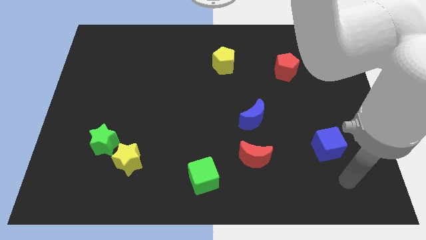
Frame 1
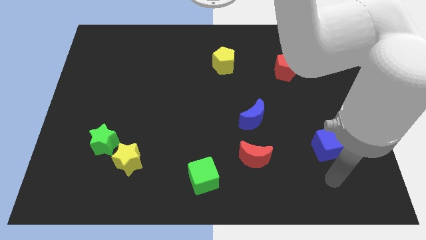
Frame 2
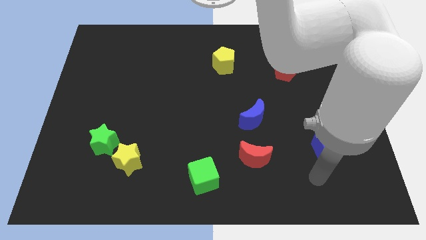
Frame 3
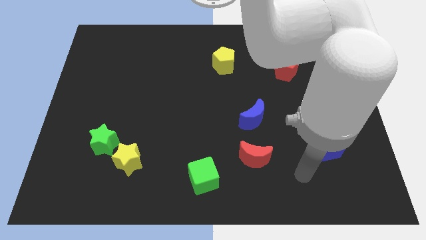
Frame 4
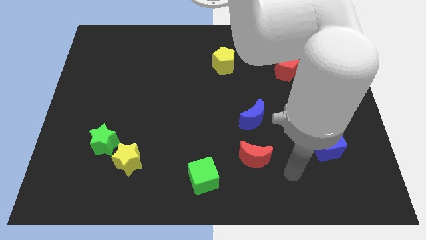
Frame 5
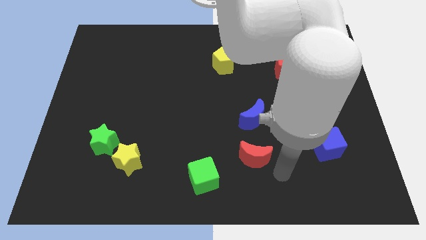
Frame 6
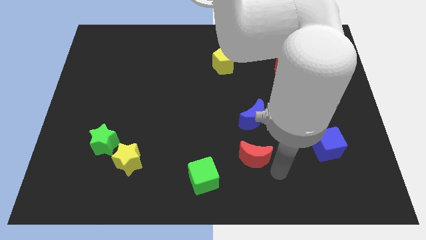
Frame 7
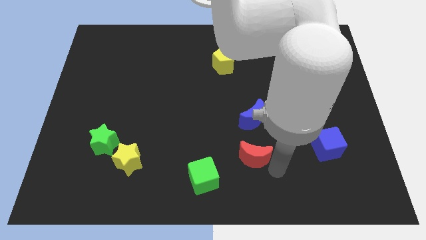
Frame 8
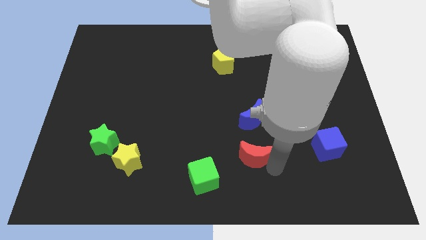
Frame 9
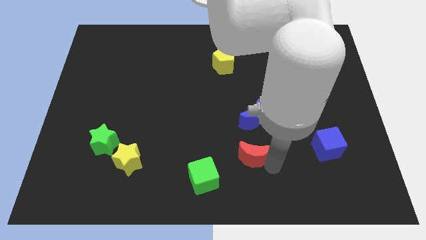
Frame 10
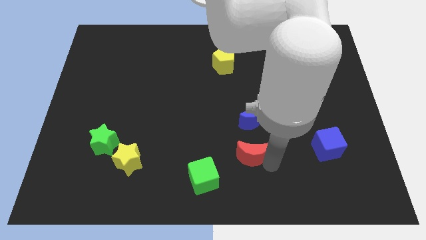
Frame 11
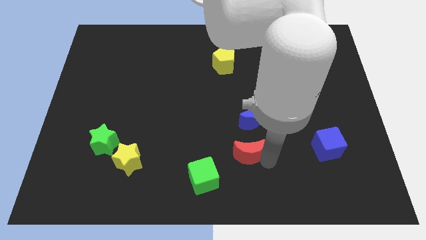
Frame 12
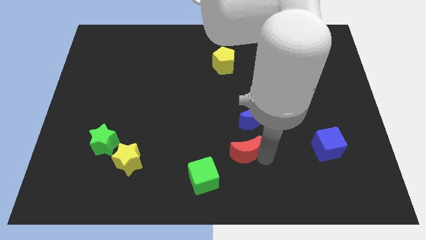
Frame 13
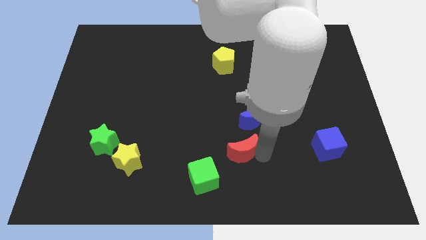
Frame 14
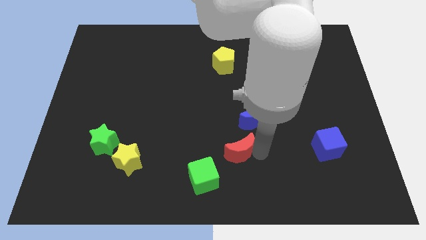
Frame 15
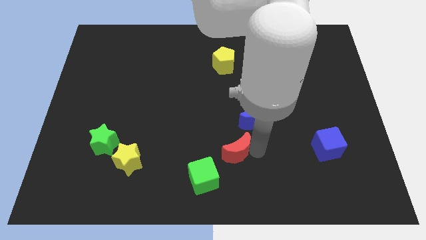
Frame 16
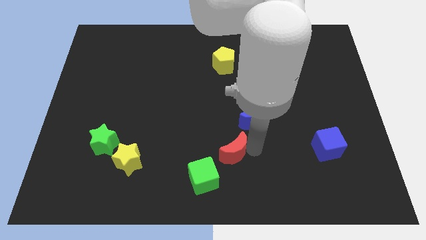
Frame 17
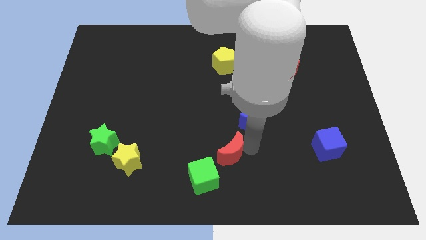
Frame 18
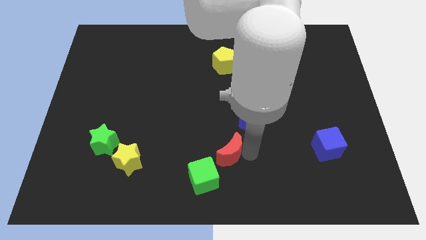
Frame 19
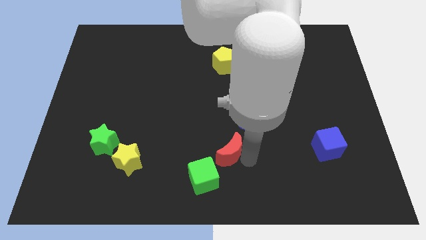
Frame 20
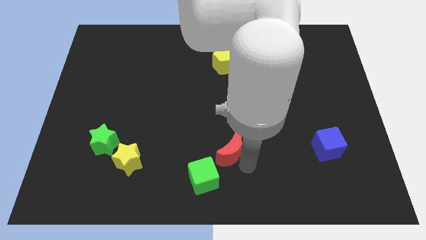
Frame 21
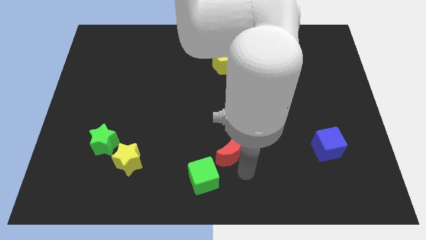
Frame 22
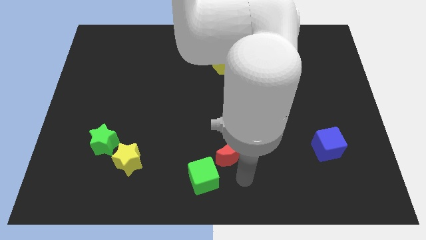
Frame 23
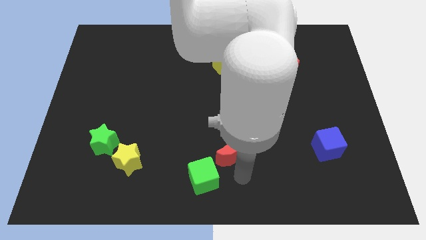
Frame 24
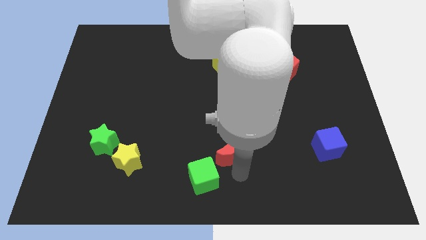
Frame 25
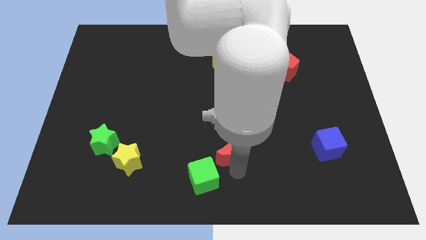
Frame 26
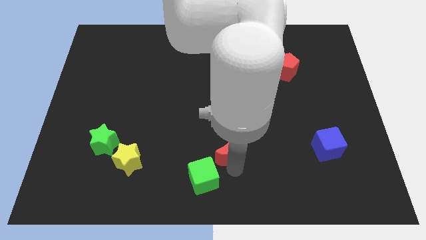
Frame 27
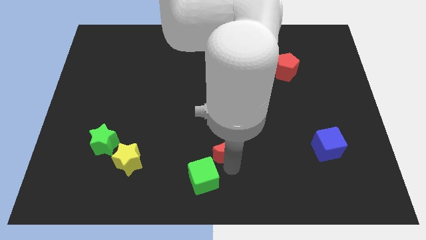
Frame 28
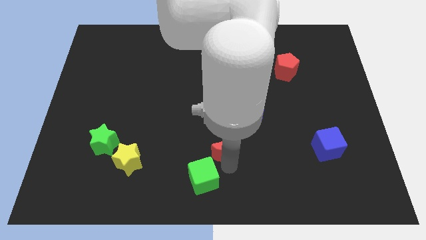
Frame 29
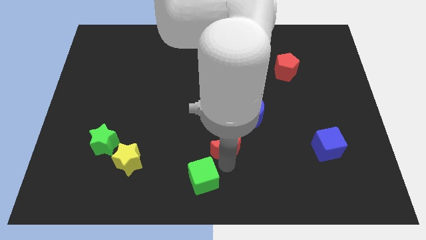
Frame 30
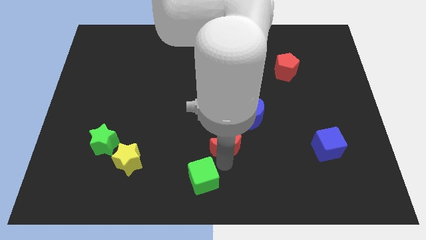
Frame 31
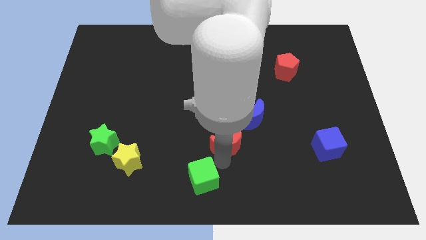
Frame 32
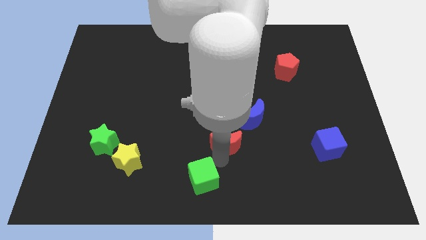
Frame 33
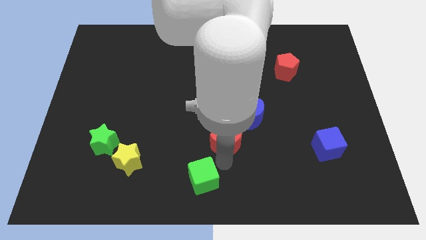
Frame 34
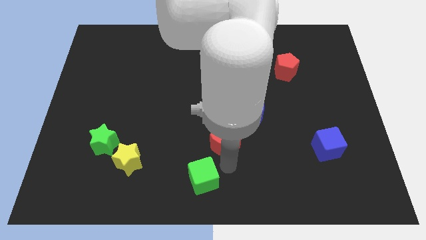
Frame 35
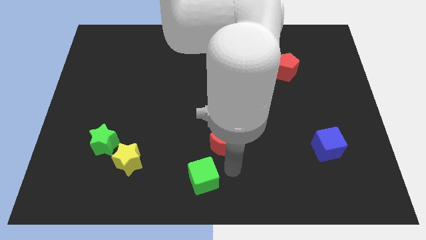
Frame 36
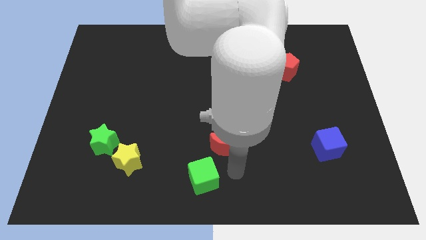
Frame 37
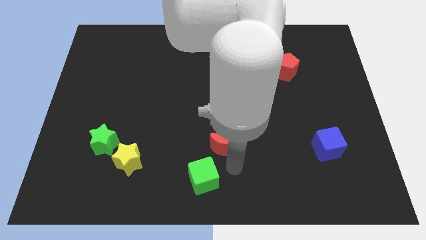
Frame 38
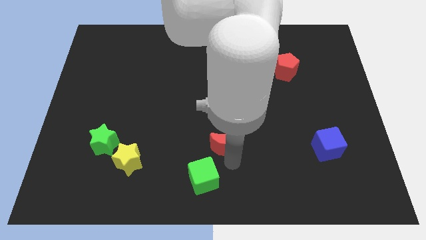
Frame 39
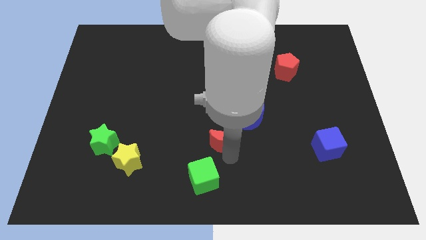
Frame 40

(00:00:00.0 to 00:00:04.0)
slightly push the red moon upwards and then to the left

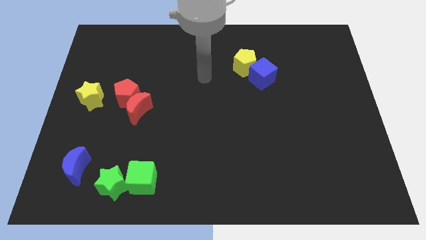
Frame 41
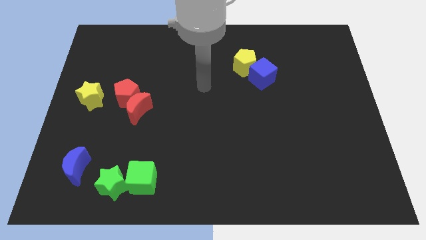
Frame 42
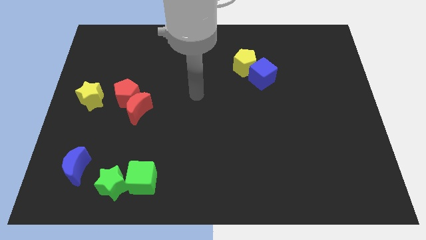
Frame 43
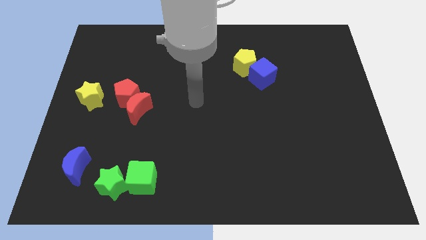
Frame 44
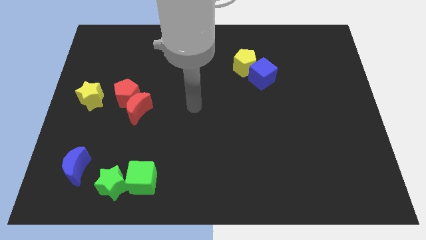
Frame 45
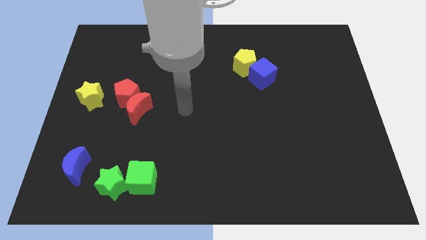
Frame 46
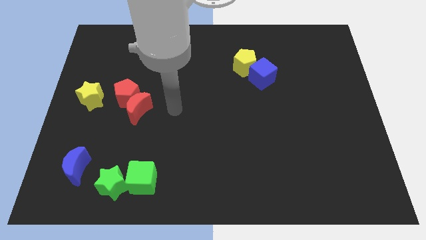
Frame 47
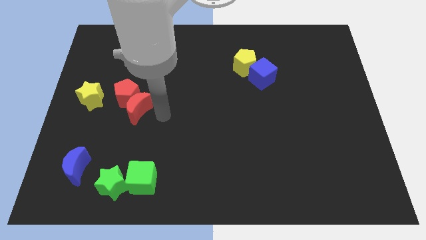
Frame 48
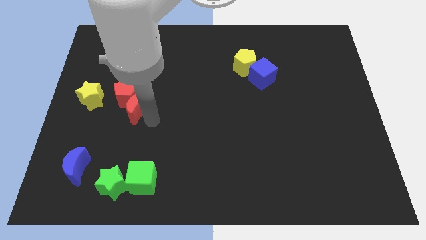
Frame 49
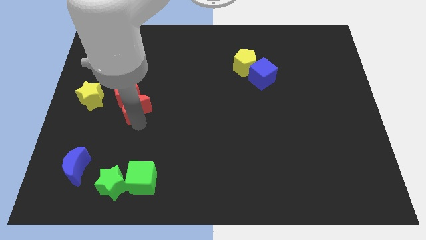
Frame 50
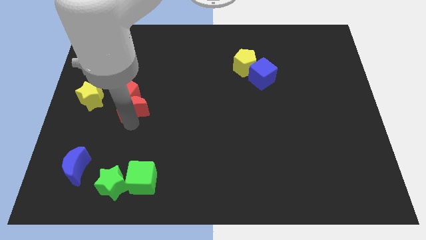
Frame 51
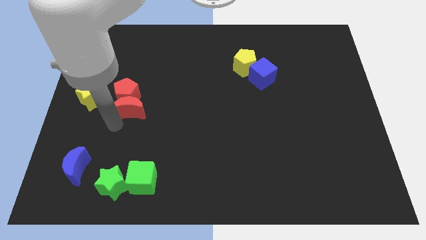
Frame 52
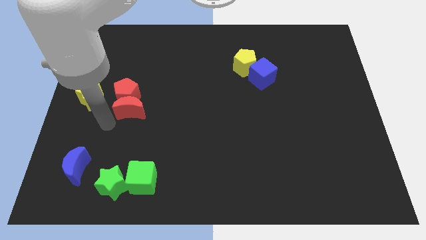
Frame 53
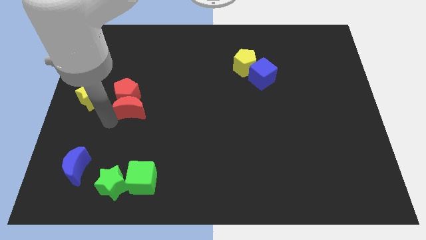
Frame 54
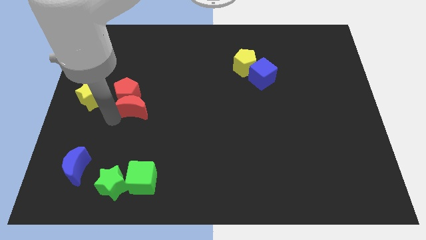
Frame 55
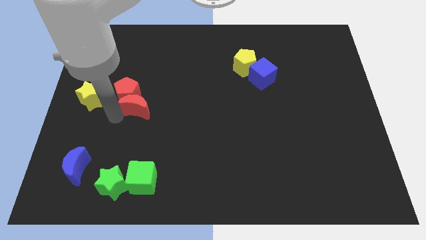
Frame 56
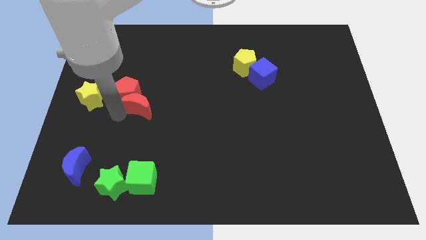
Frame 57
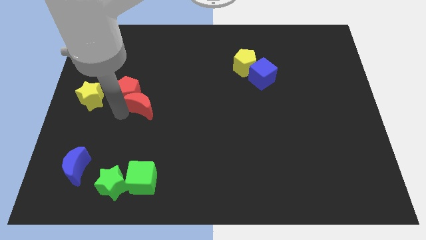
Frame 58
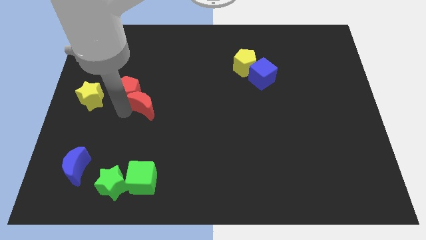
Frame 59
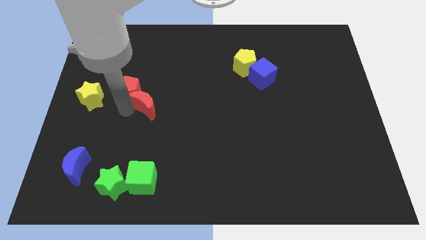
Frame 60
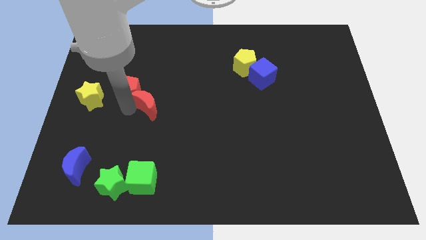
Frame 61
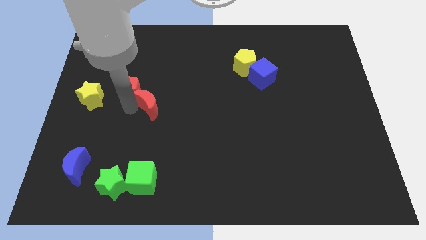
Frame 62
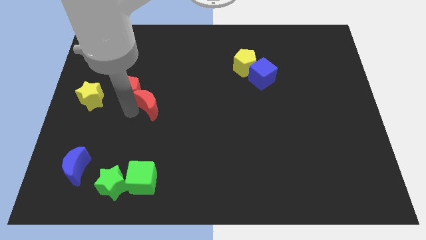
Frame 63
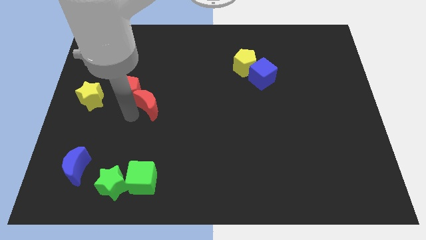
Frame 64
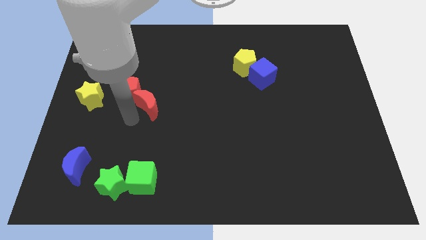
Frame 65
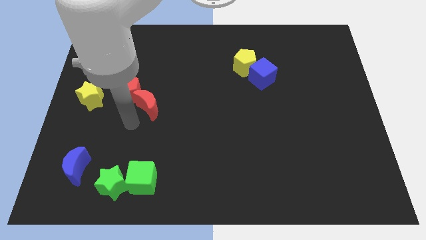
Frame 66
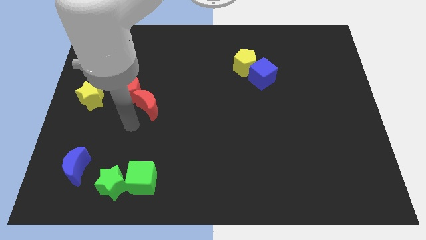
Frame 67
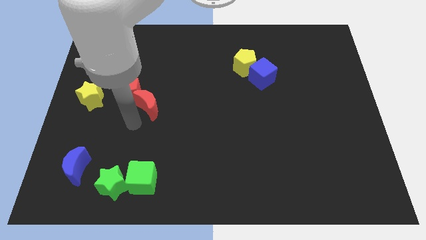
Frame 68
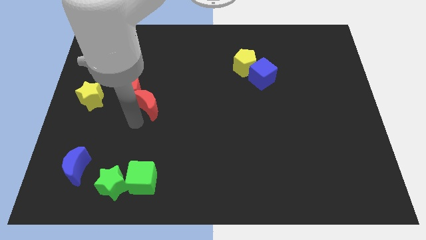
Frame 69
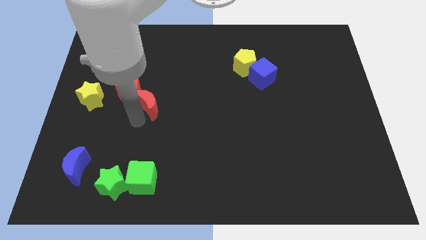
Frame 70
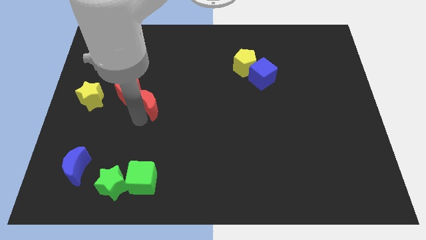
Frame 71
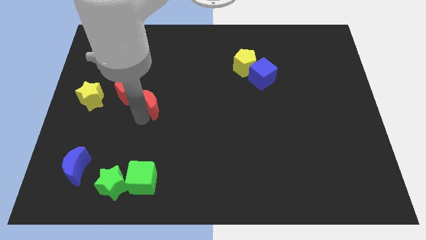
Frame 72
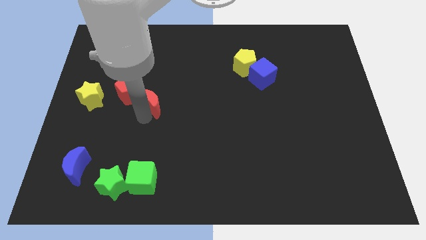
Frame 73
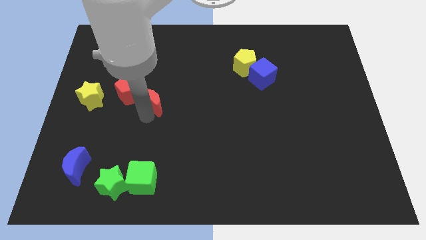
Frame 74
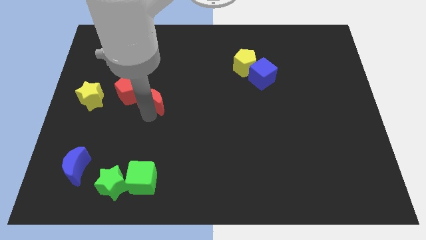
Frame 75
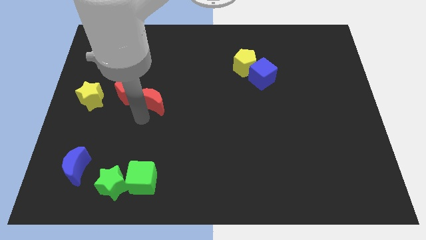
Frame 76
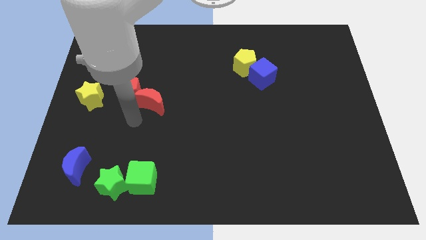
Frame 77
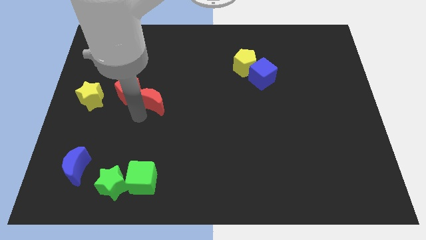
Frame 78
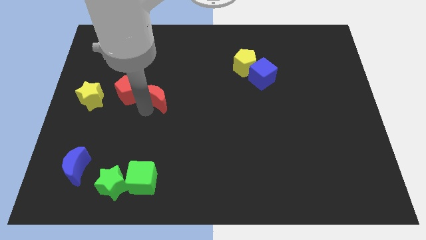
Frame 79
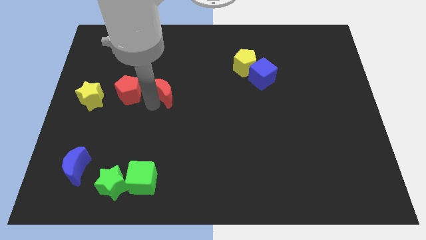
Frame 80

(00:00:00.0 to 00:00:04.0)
slightly slide the red moon up and then to the right
